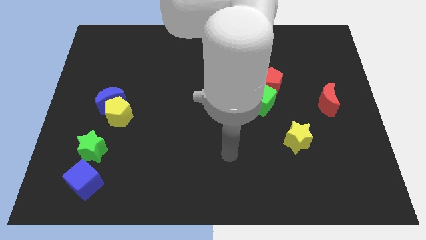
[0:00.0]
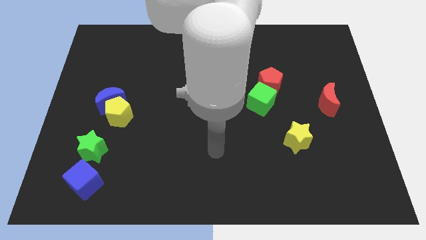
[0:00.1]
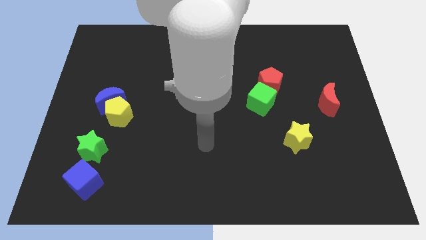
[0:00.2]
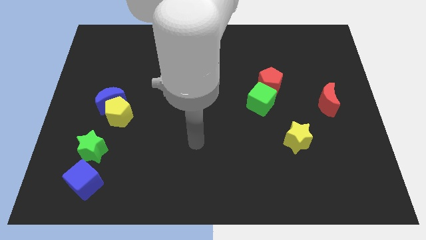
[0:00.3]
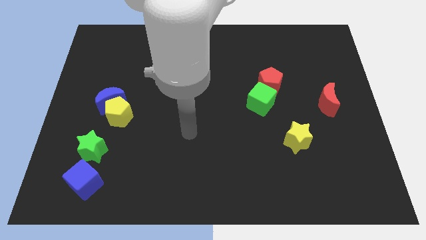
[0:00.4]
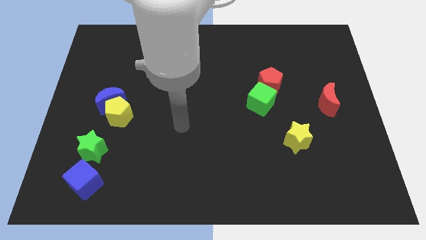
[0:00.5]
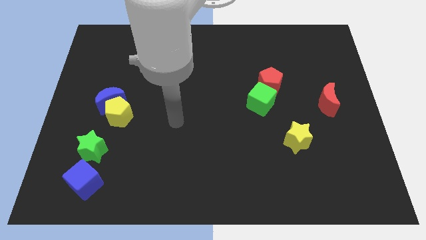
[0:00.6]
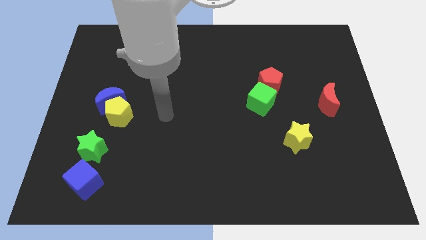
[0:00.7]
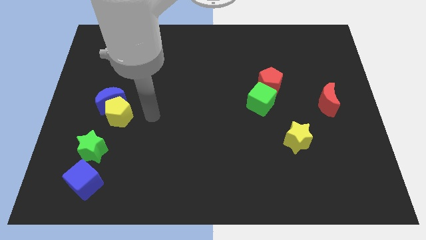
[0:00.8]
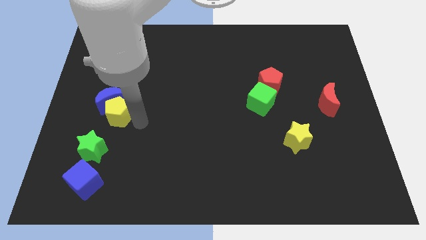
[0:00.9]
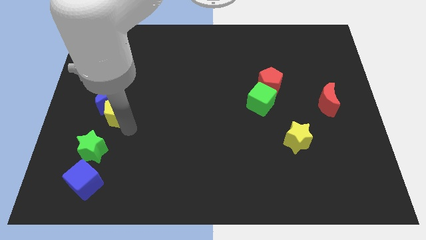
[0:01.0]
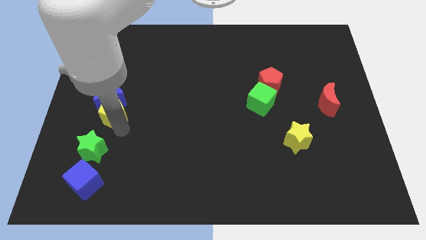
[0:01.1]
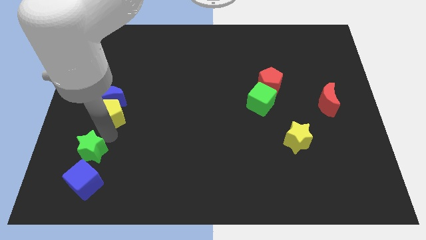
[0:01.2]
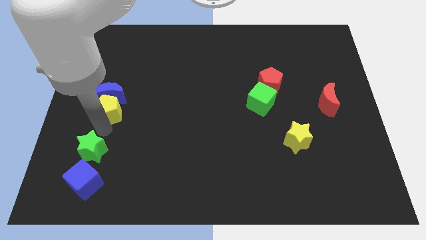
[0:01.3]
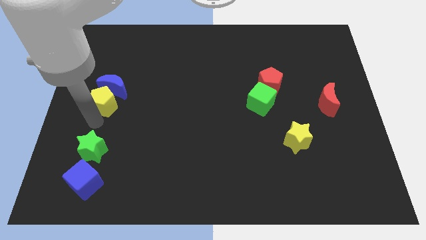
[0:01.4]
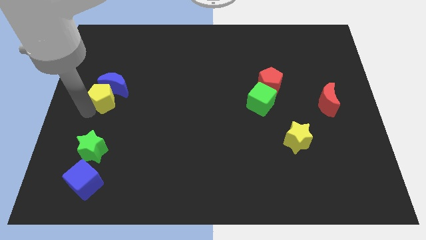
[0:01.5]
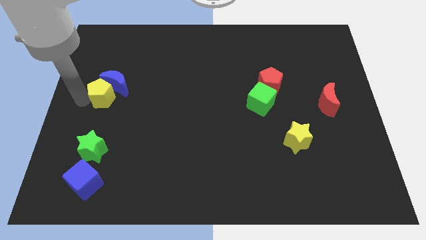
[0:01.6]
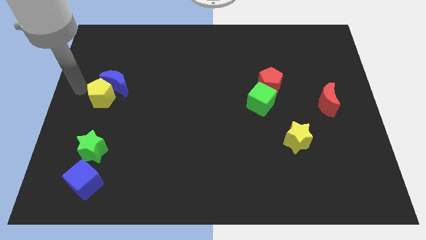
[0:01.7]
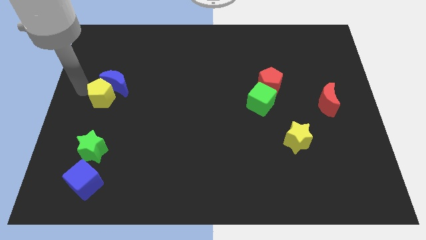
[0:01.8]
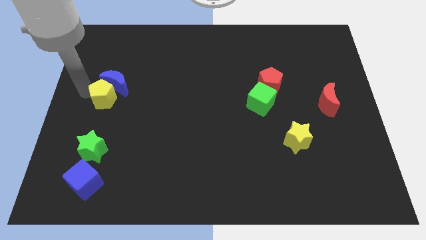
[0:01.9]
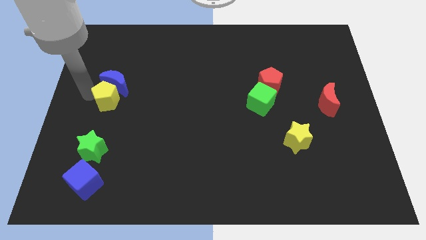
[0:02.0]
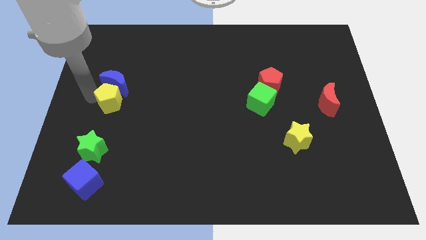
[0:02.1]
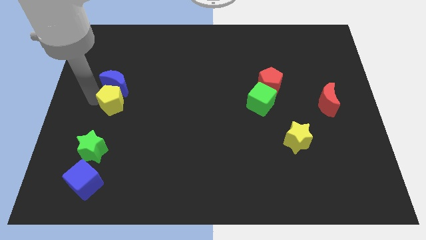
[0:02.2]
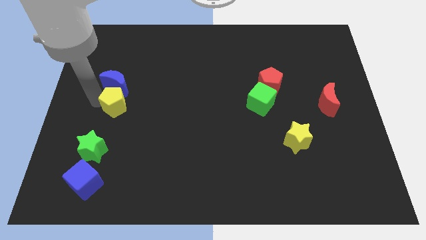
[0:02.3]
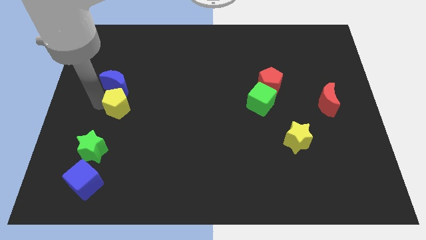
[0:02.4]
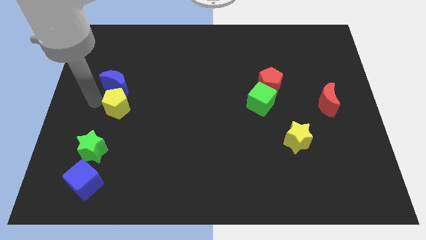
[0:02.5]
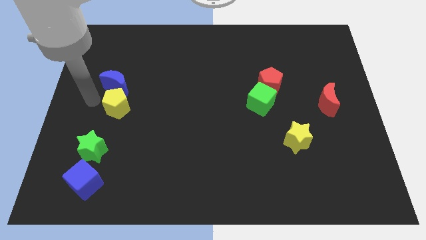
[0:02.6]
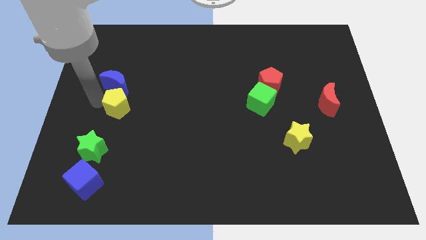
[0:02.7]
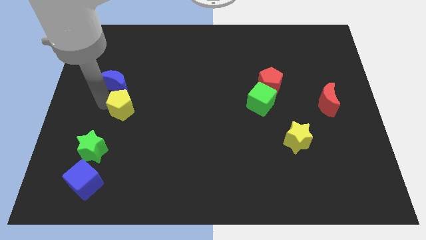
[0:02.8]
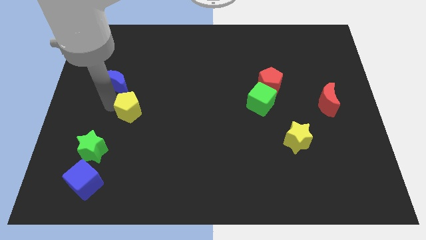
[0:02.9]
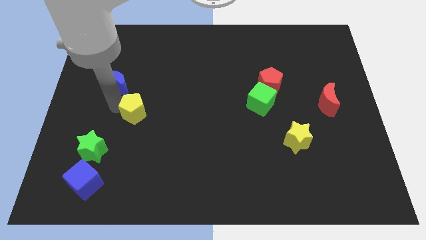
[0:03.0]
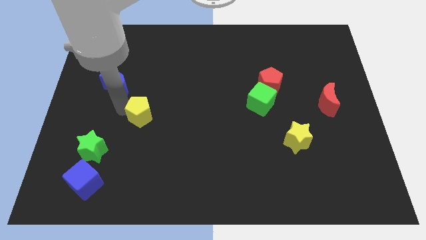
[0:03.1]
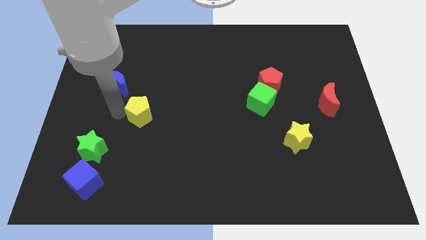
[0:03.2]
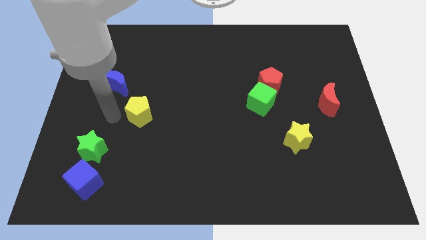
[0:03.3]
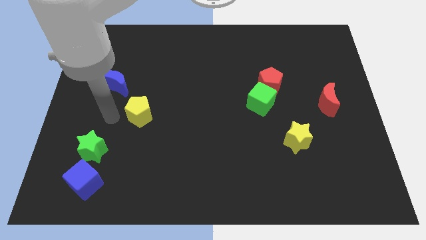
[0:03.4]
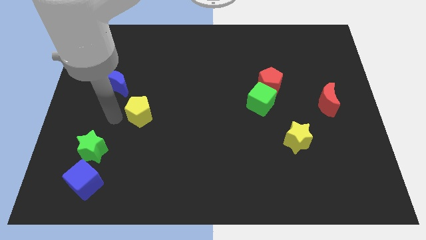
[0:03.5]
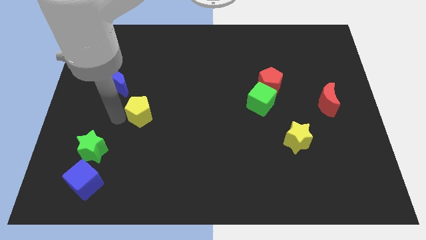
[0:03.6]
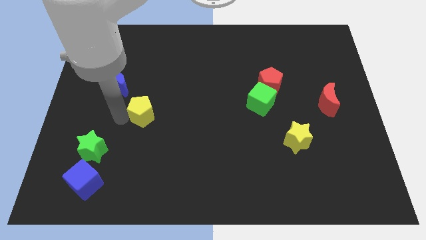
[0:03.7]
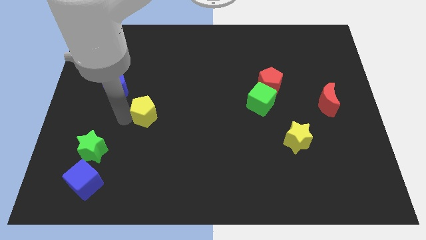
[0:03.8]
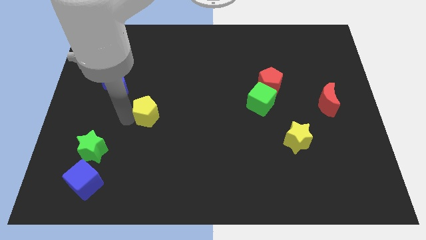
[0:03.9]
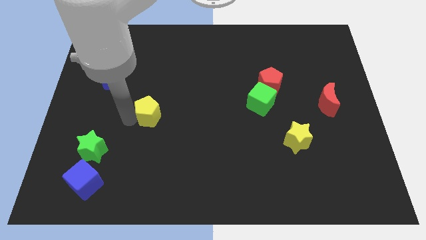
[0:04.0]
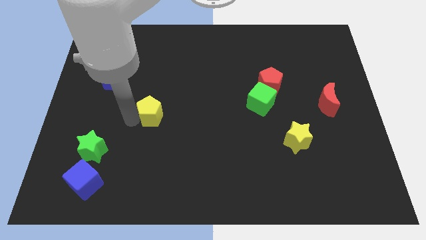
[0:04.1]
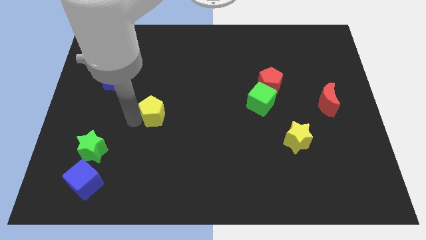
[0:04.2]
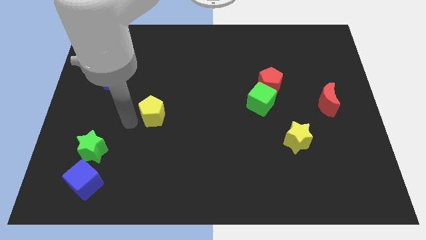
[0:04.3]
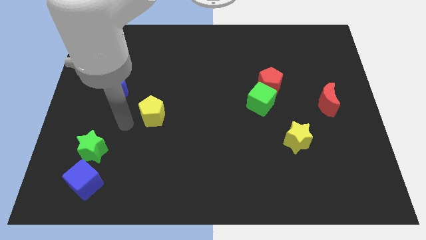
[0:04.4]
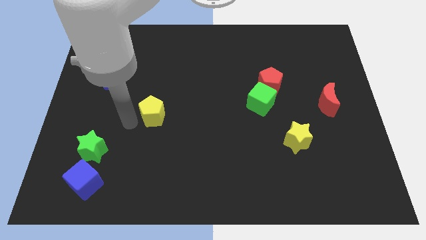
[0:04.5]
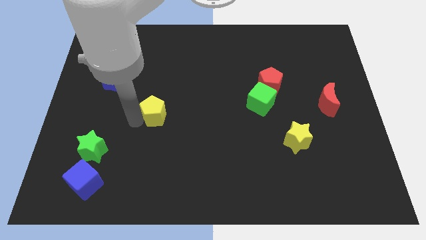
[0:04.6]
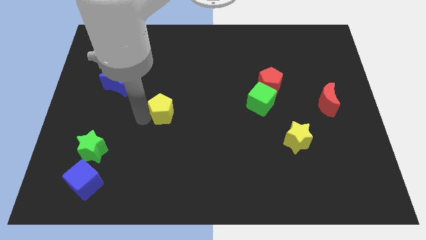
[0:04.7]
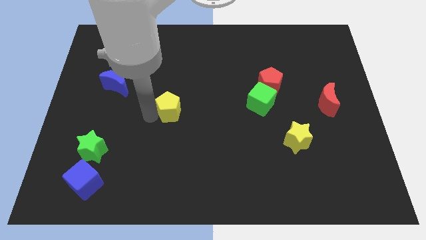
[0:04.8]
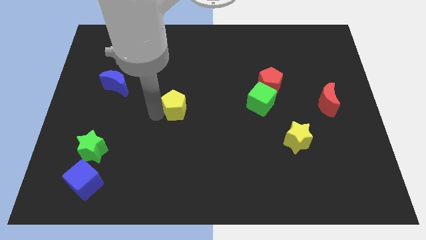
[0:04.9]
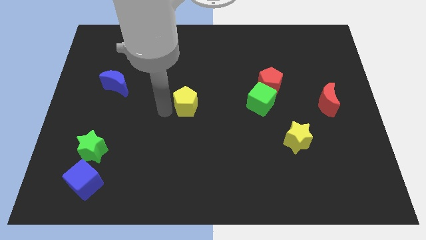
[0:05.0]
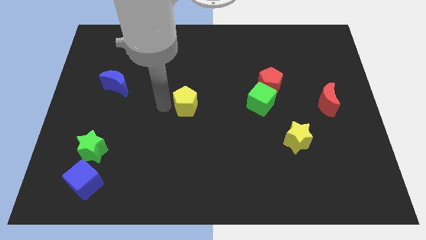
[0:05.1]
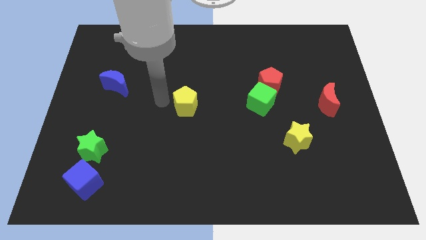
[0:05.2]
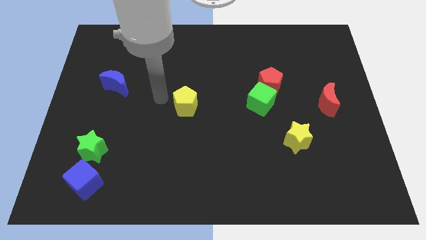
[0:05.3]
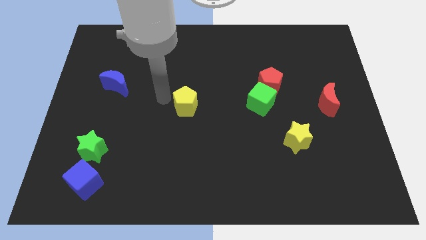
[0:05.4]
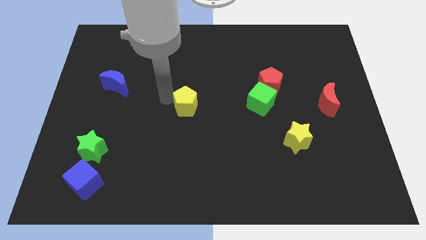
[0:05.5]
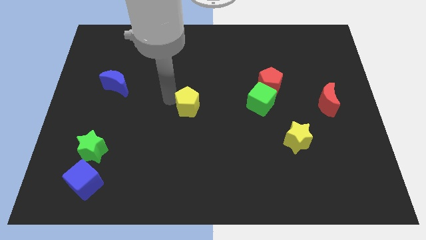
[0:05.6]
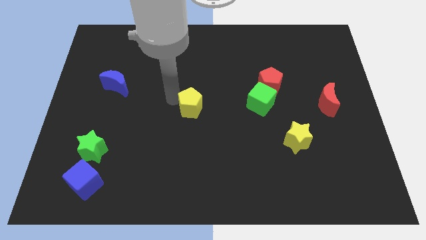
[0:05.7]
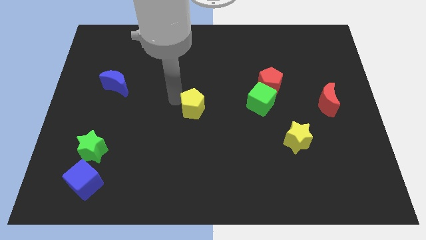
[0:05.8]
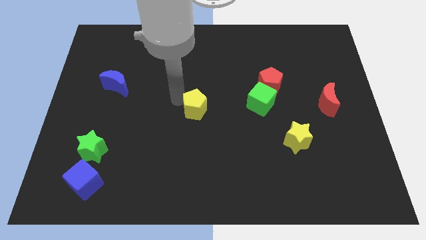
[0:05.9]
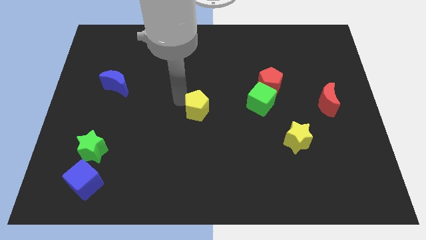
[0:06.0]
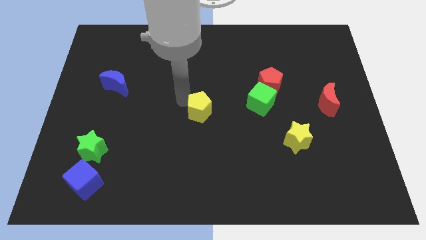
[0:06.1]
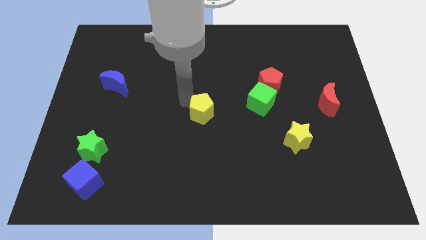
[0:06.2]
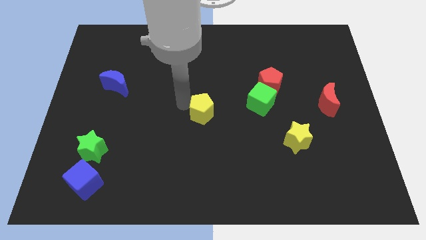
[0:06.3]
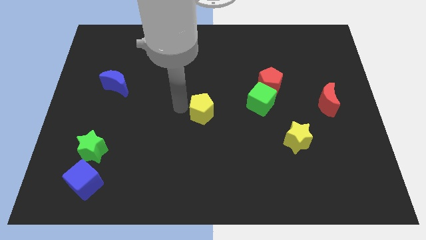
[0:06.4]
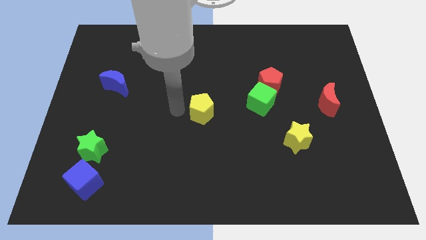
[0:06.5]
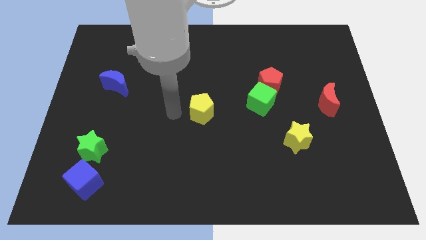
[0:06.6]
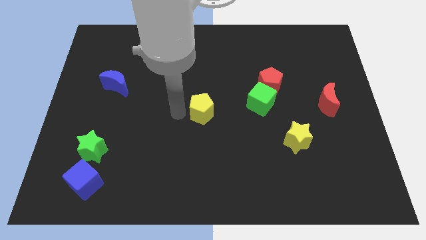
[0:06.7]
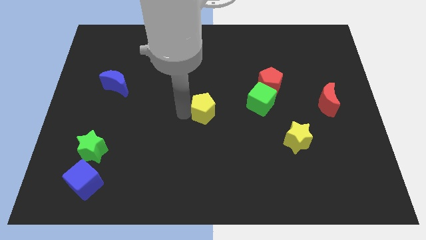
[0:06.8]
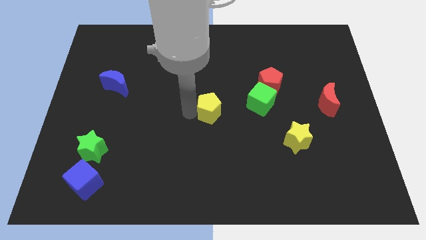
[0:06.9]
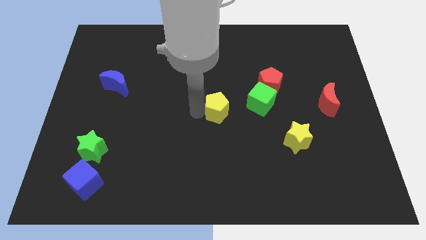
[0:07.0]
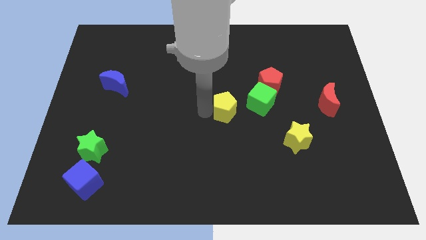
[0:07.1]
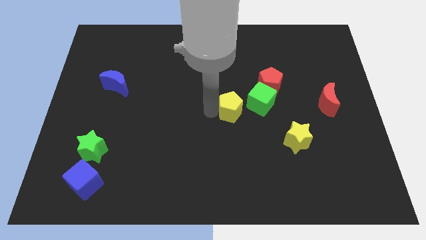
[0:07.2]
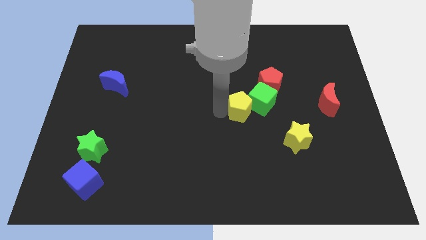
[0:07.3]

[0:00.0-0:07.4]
put the yellow pentagon close to the green cube
